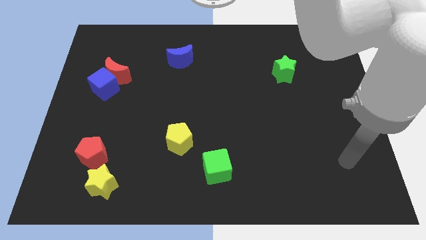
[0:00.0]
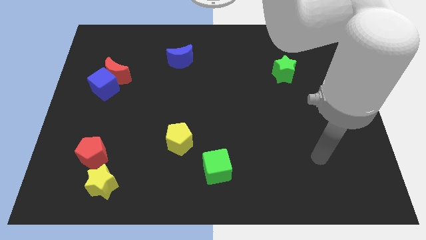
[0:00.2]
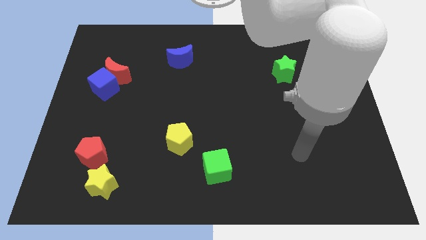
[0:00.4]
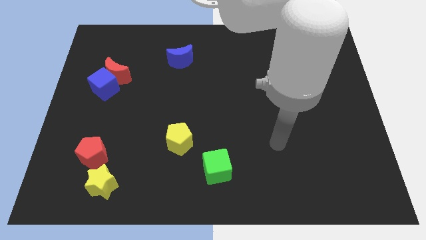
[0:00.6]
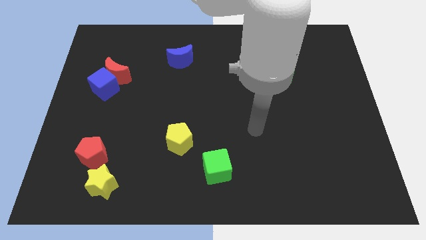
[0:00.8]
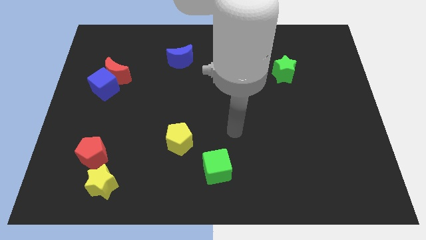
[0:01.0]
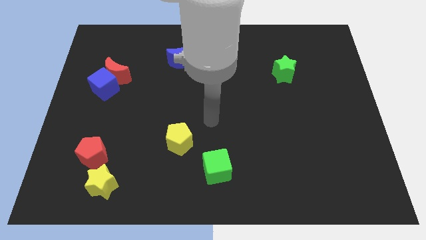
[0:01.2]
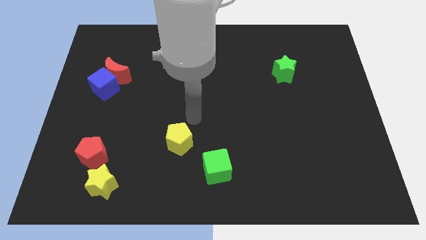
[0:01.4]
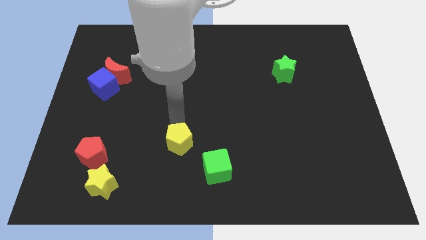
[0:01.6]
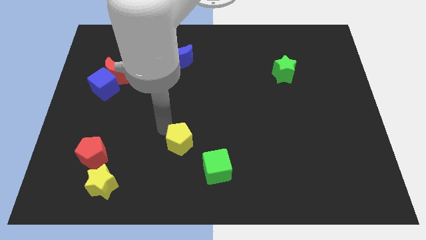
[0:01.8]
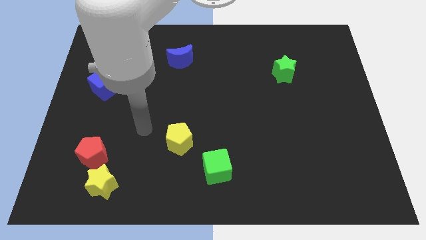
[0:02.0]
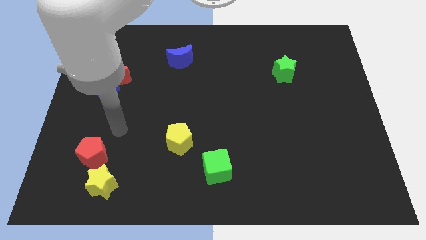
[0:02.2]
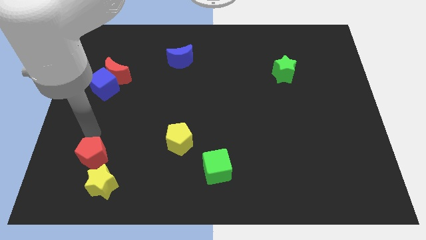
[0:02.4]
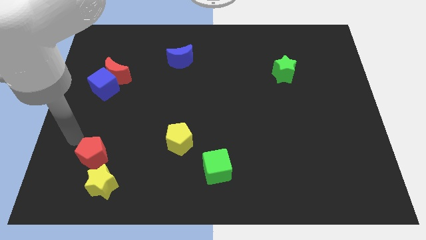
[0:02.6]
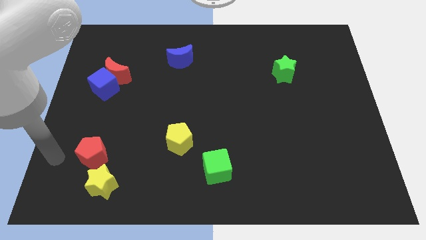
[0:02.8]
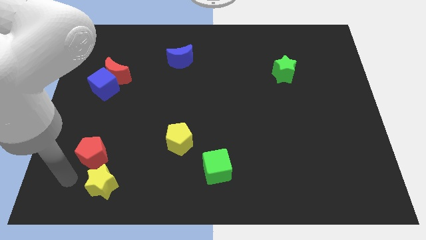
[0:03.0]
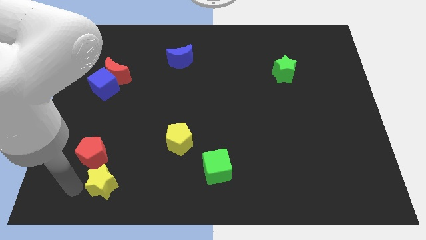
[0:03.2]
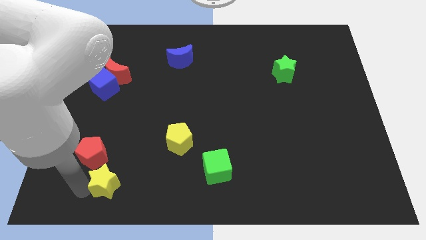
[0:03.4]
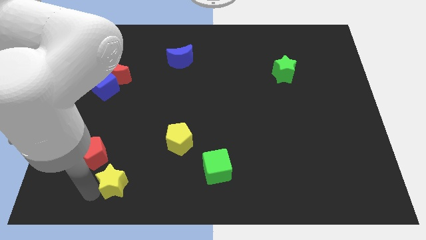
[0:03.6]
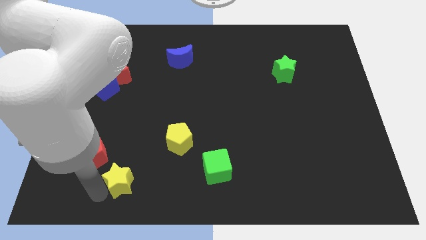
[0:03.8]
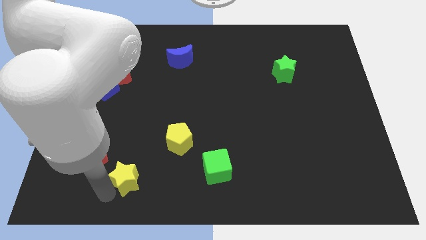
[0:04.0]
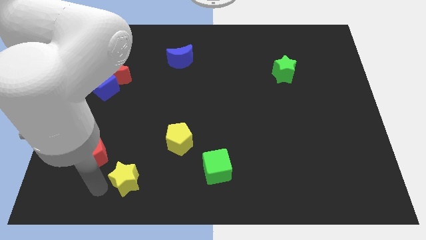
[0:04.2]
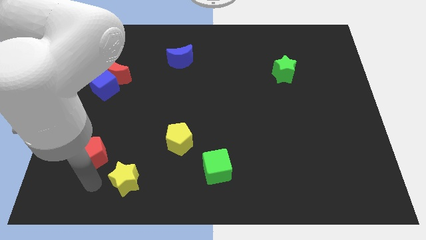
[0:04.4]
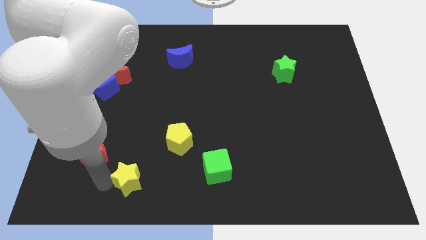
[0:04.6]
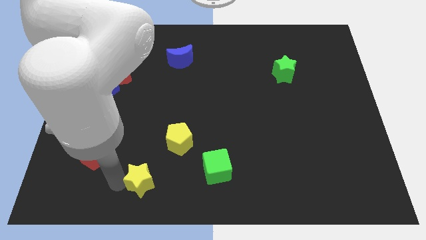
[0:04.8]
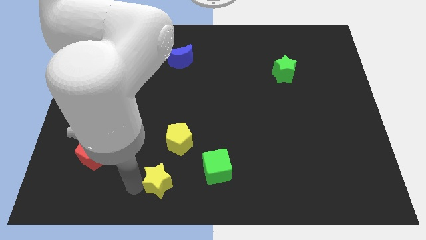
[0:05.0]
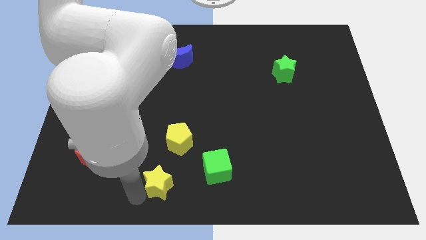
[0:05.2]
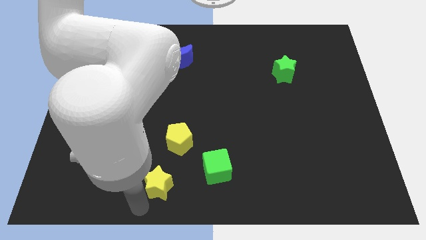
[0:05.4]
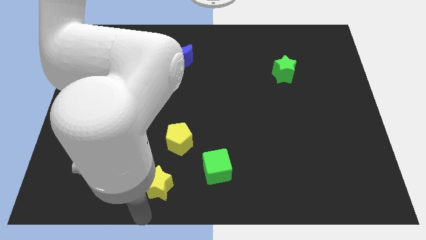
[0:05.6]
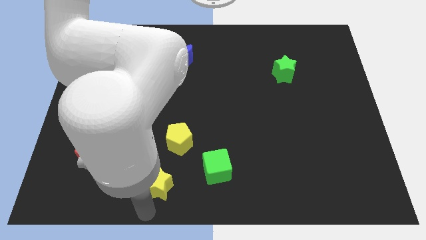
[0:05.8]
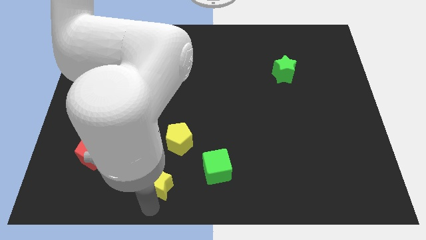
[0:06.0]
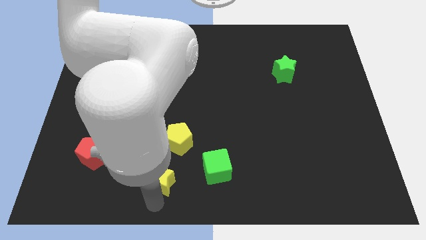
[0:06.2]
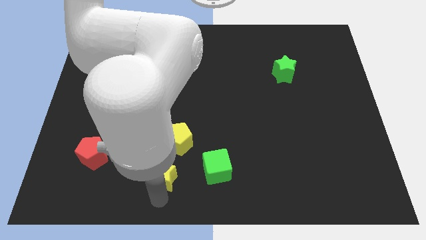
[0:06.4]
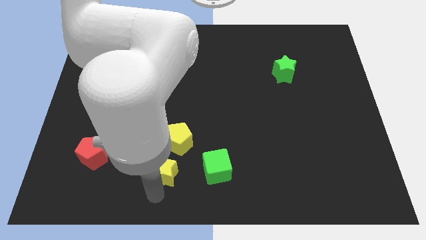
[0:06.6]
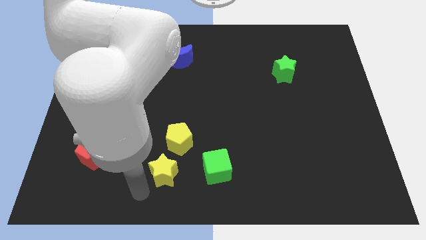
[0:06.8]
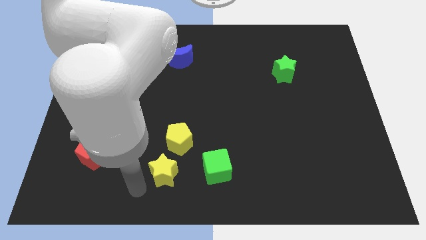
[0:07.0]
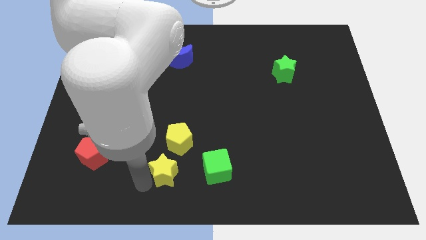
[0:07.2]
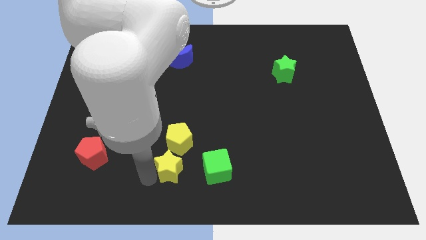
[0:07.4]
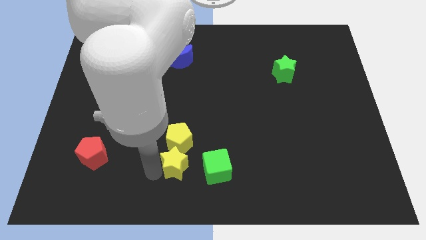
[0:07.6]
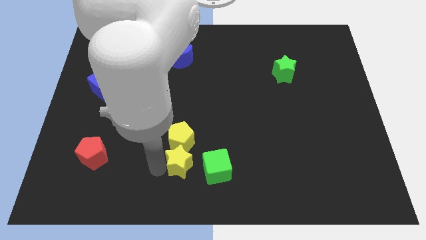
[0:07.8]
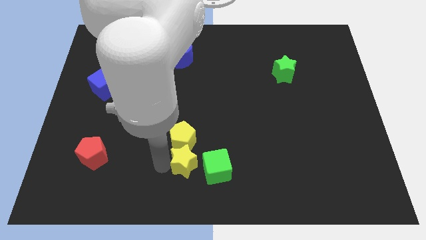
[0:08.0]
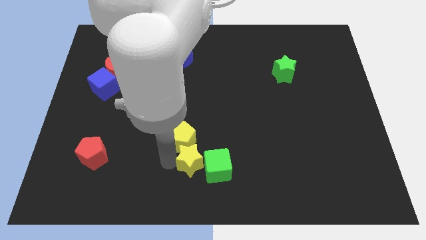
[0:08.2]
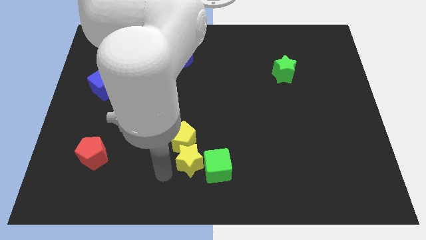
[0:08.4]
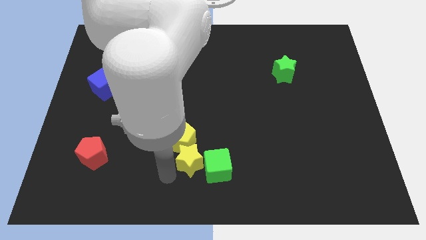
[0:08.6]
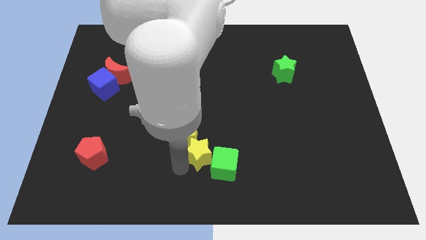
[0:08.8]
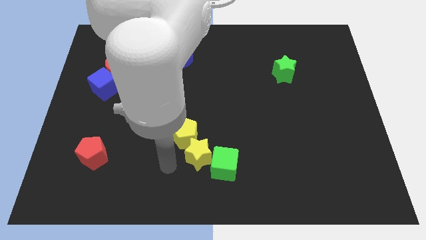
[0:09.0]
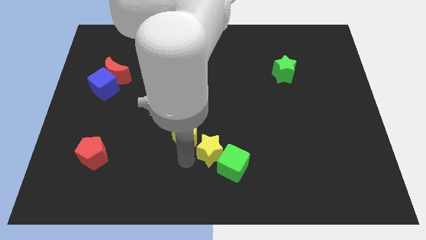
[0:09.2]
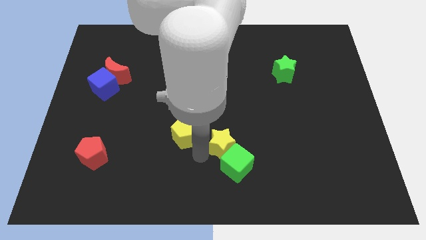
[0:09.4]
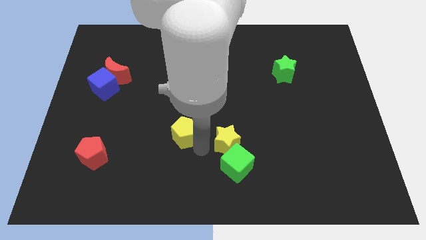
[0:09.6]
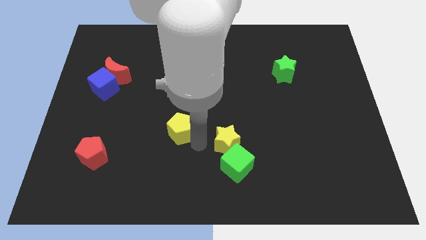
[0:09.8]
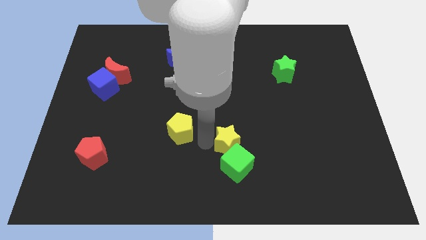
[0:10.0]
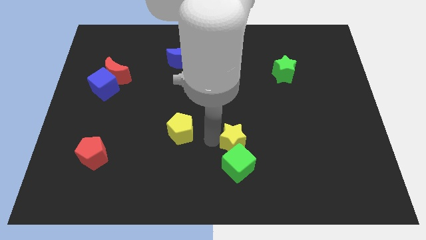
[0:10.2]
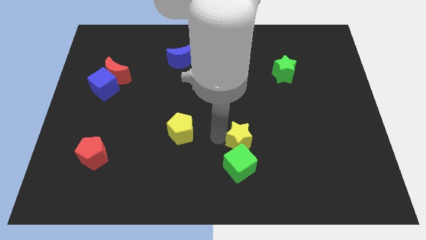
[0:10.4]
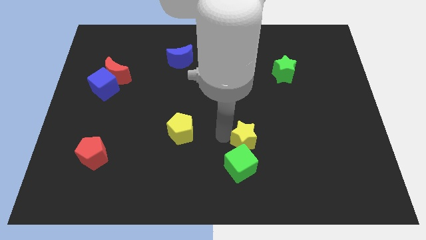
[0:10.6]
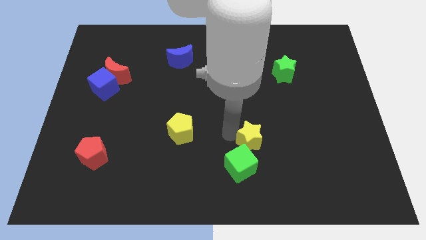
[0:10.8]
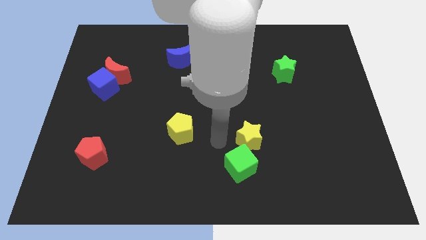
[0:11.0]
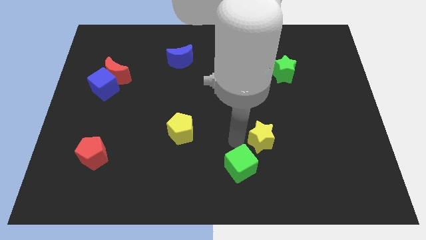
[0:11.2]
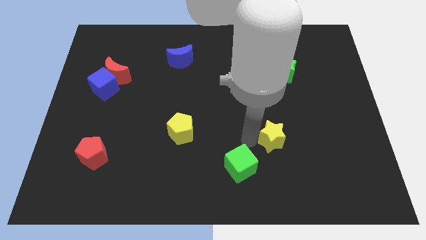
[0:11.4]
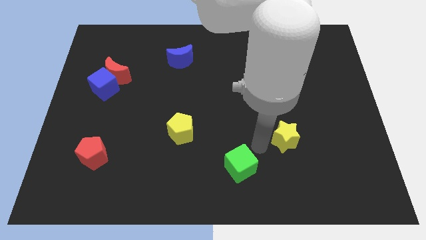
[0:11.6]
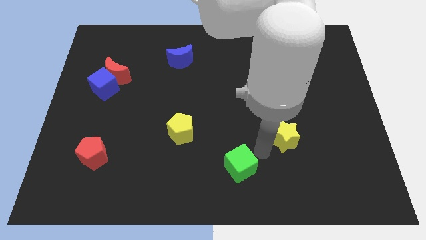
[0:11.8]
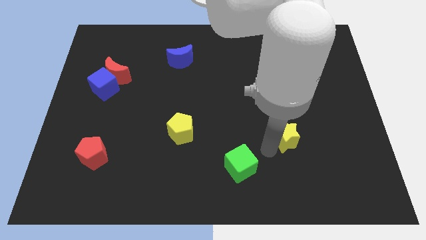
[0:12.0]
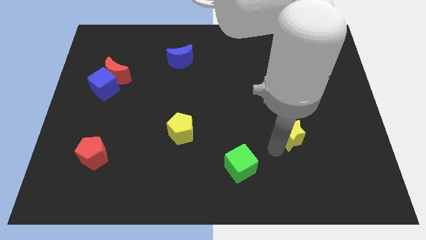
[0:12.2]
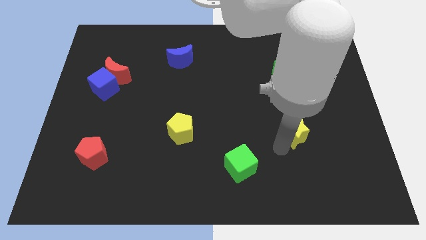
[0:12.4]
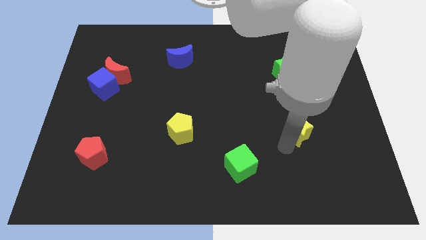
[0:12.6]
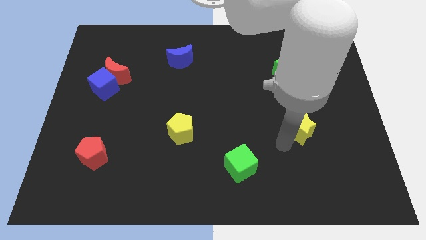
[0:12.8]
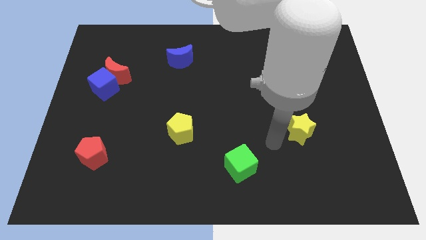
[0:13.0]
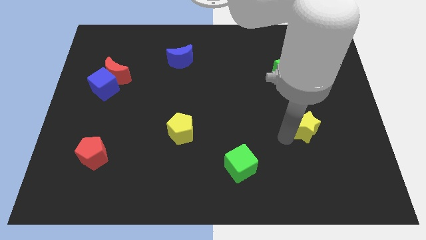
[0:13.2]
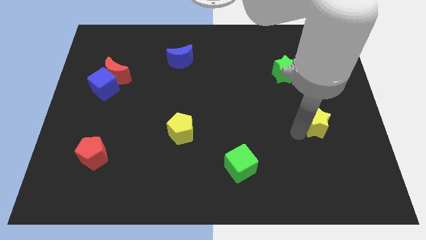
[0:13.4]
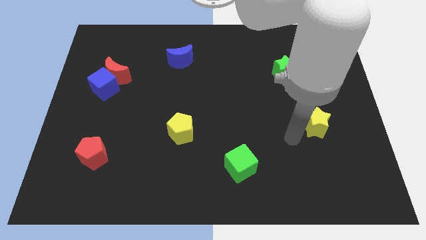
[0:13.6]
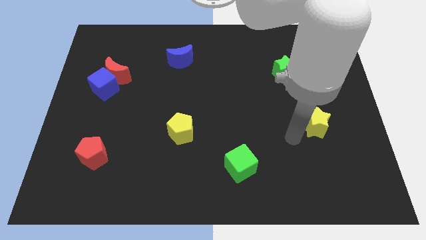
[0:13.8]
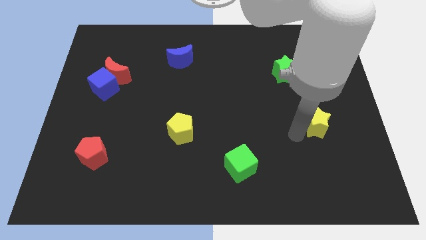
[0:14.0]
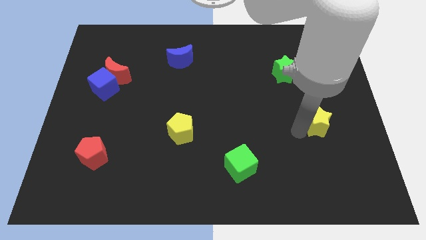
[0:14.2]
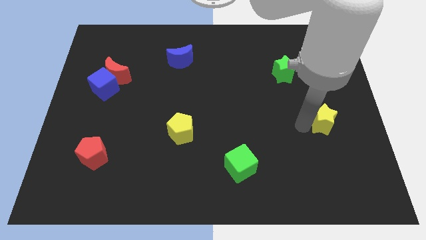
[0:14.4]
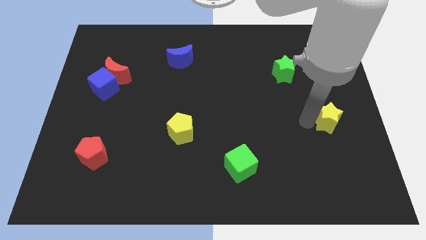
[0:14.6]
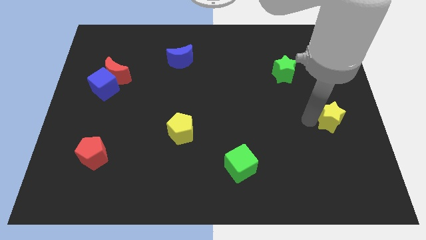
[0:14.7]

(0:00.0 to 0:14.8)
slide the yellow star to the right side
